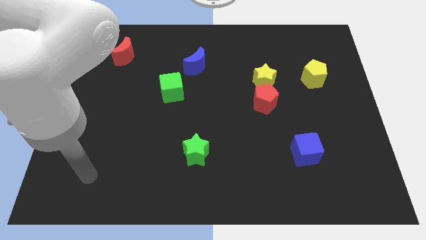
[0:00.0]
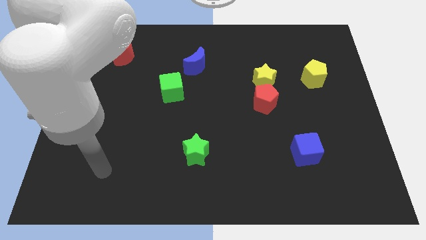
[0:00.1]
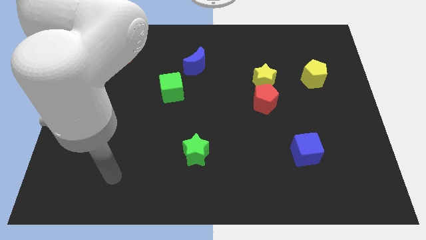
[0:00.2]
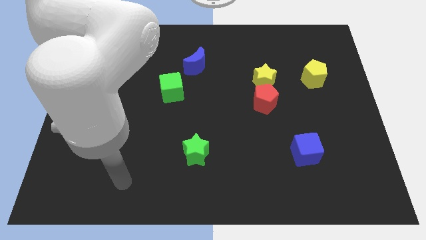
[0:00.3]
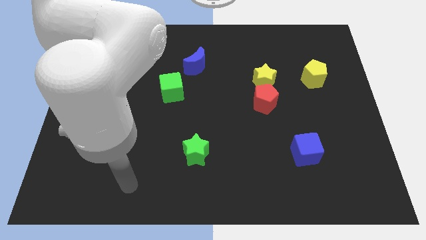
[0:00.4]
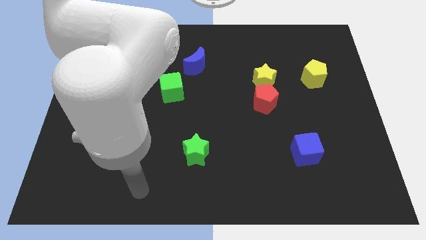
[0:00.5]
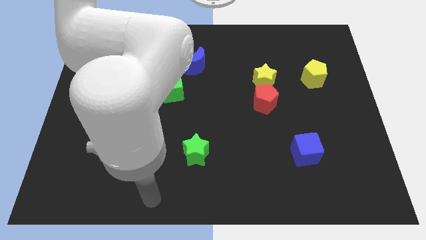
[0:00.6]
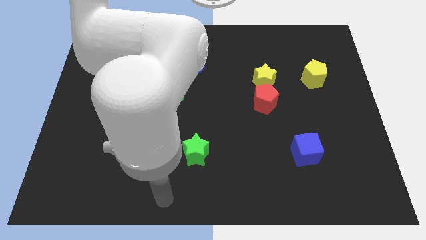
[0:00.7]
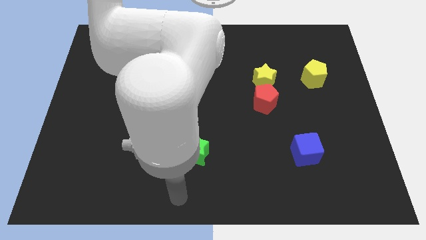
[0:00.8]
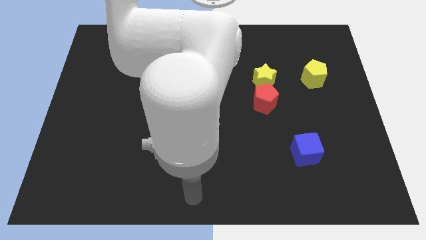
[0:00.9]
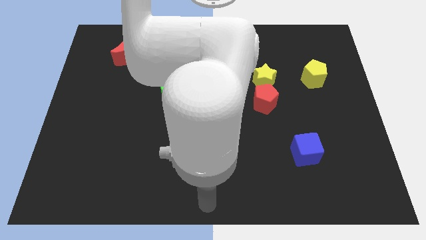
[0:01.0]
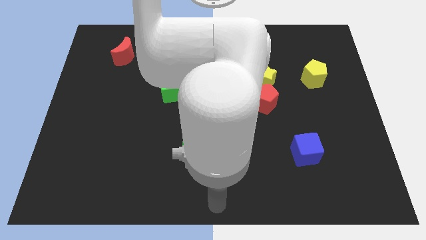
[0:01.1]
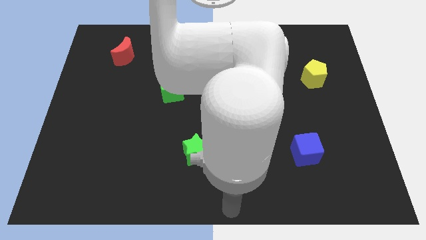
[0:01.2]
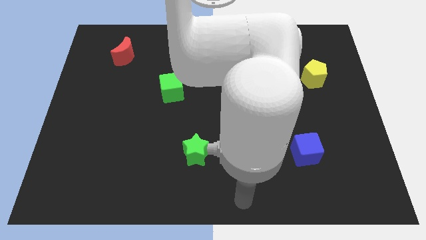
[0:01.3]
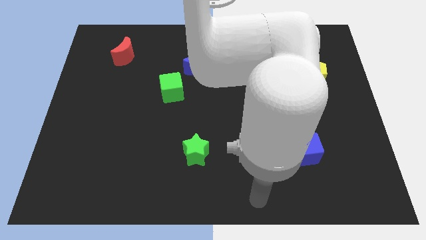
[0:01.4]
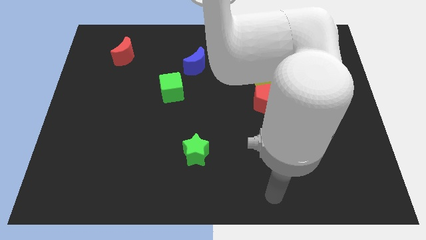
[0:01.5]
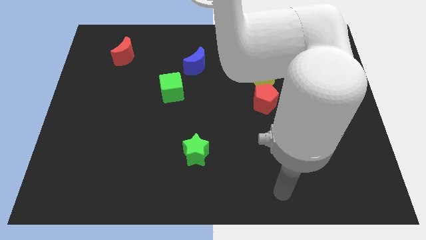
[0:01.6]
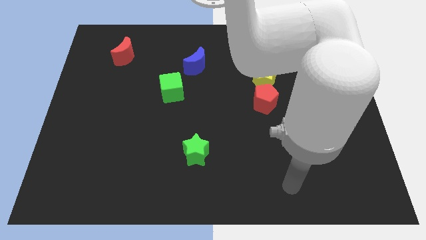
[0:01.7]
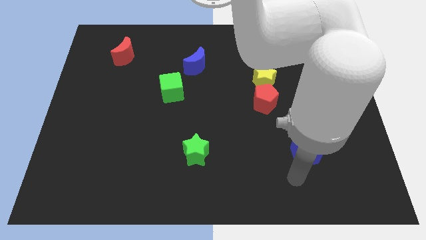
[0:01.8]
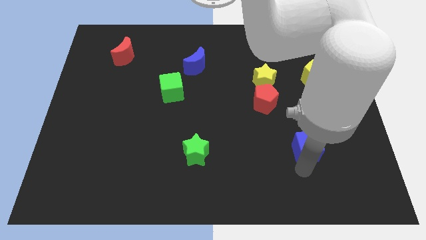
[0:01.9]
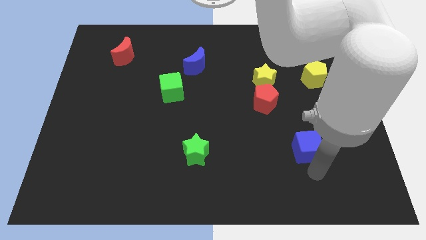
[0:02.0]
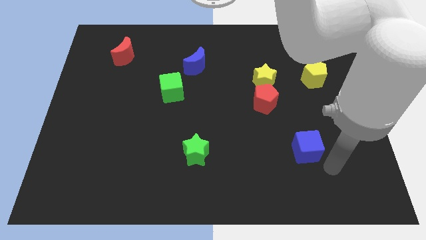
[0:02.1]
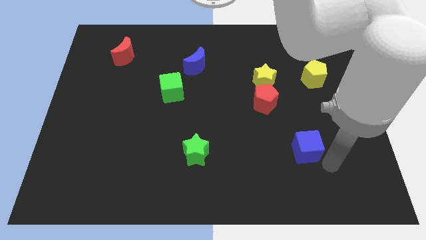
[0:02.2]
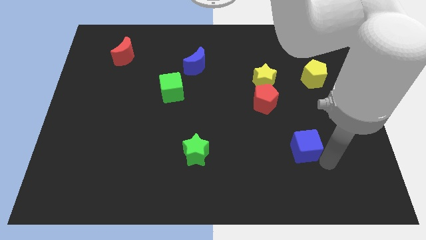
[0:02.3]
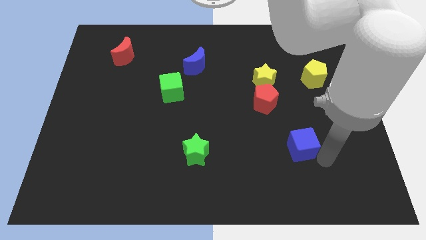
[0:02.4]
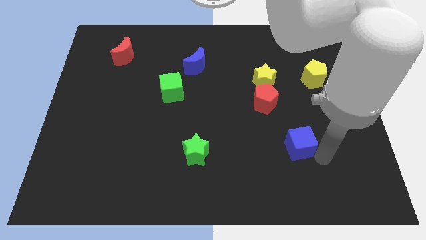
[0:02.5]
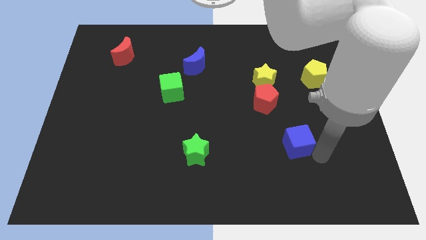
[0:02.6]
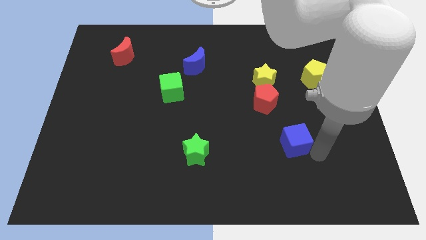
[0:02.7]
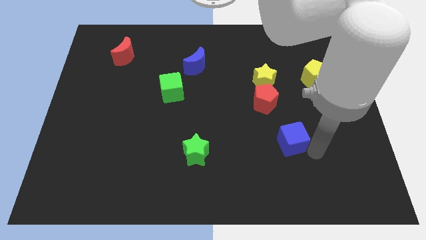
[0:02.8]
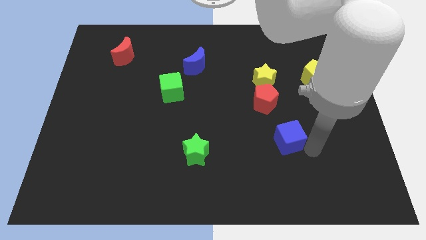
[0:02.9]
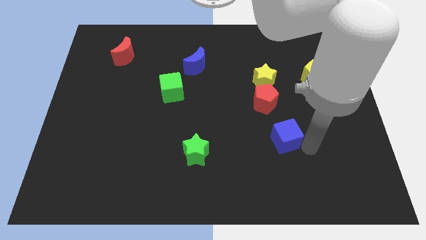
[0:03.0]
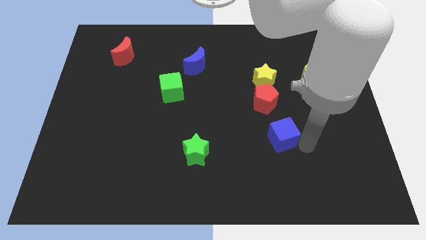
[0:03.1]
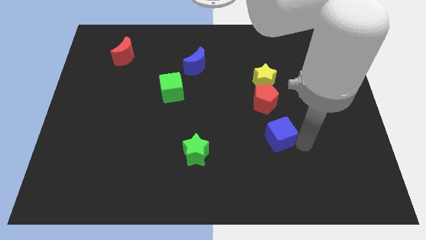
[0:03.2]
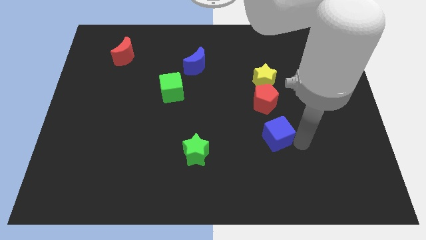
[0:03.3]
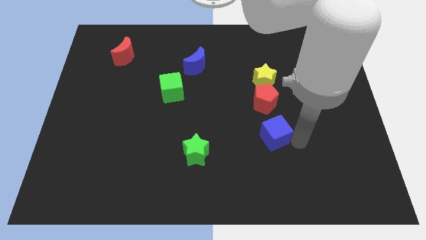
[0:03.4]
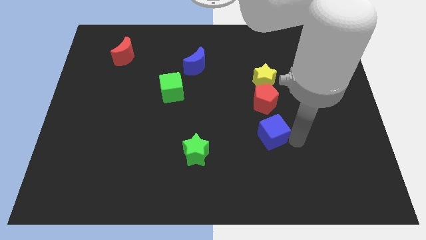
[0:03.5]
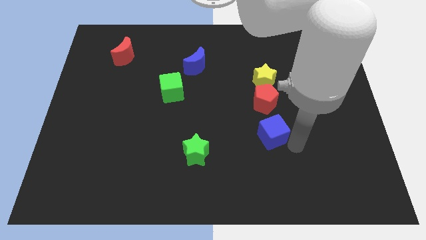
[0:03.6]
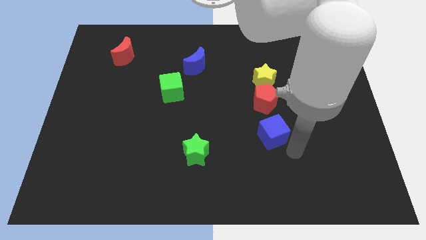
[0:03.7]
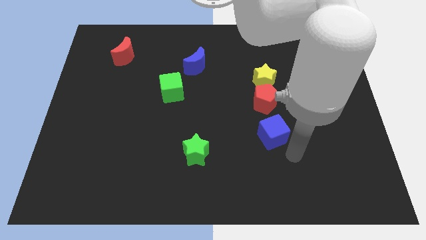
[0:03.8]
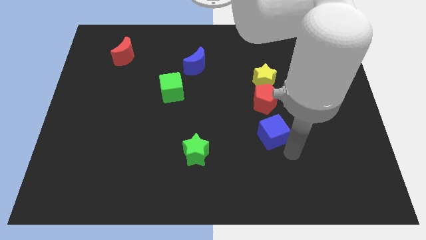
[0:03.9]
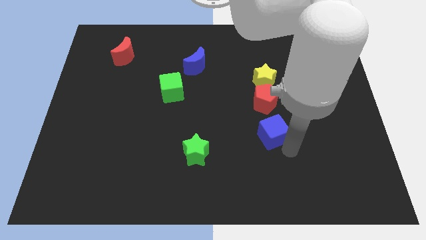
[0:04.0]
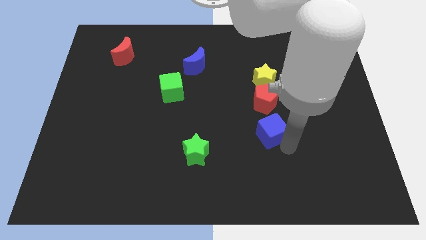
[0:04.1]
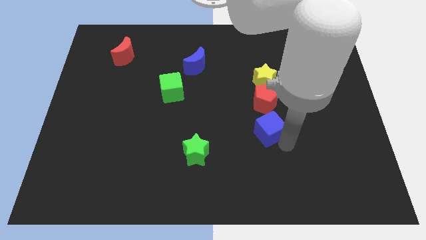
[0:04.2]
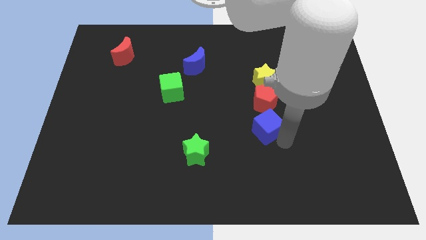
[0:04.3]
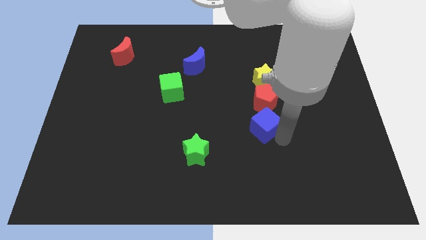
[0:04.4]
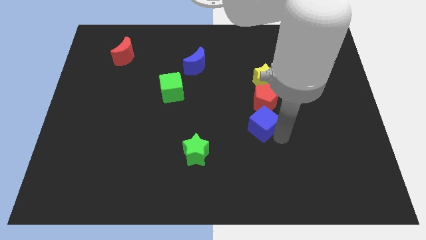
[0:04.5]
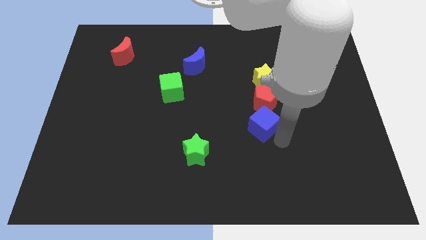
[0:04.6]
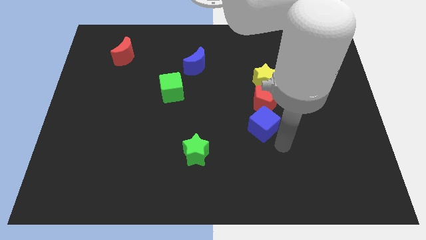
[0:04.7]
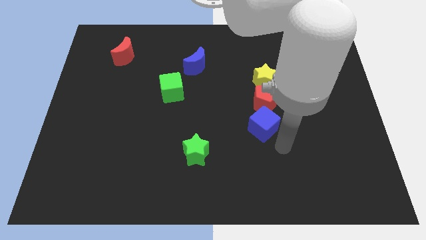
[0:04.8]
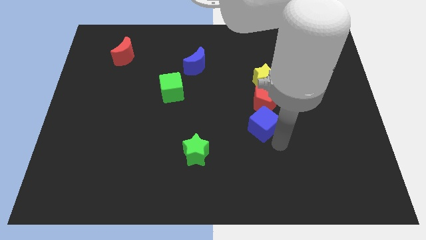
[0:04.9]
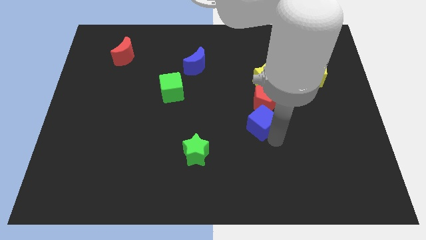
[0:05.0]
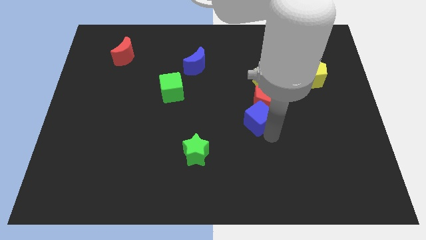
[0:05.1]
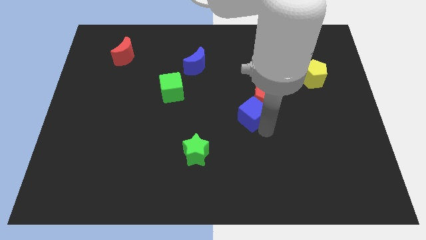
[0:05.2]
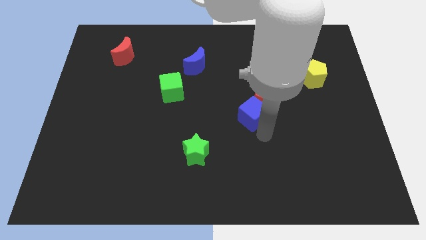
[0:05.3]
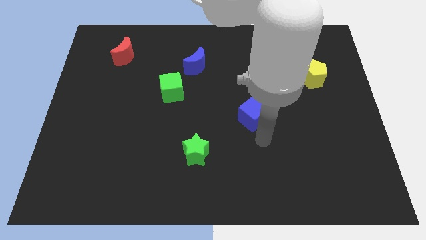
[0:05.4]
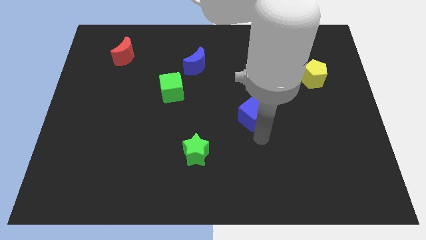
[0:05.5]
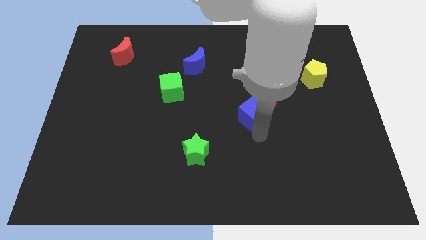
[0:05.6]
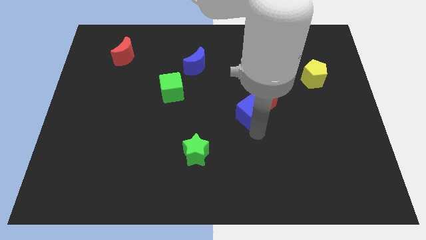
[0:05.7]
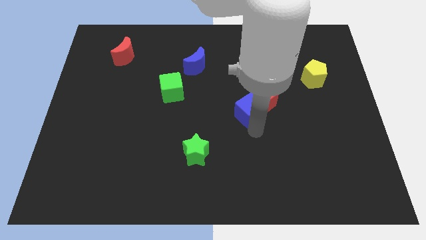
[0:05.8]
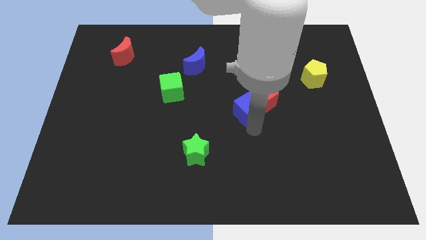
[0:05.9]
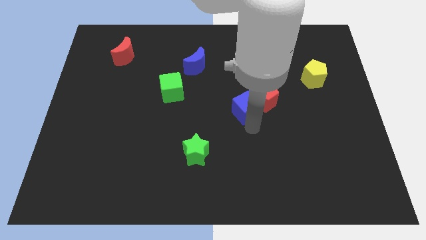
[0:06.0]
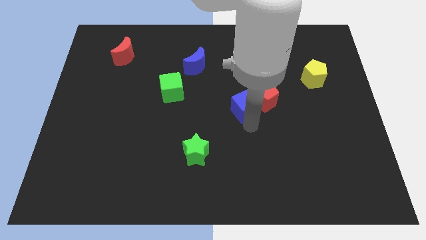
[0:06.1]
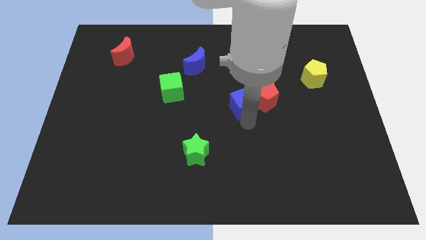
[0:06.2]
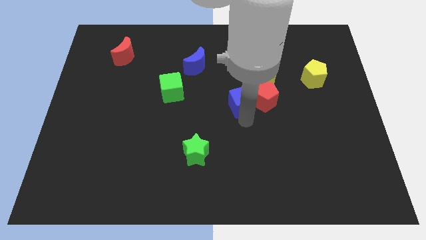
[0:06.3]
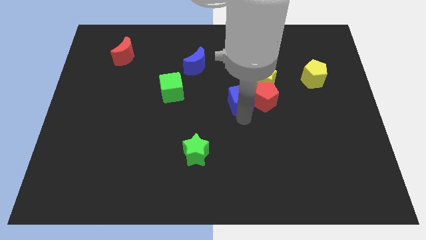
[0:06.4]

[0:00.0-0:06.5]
push the blue cube to the top left side of the red pentagon

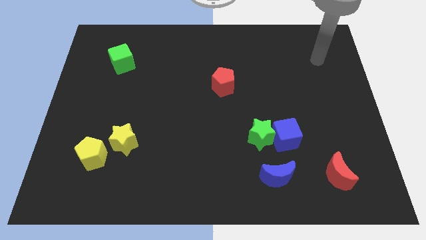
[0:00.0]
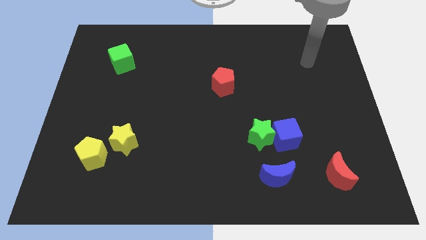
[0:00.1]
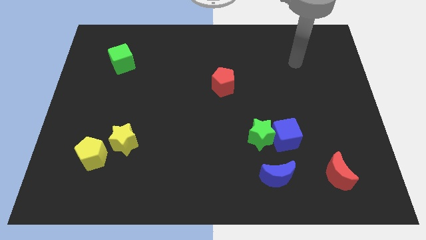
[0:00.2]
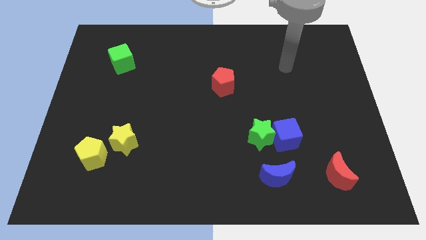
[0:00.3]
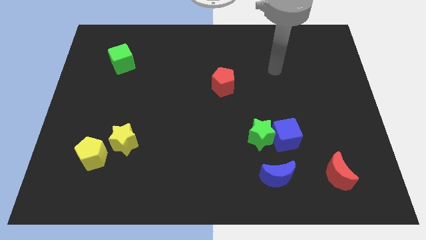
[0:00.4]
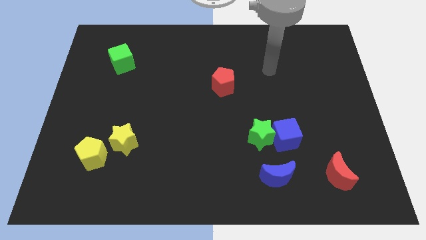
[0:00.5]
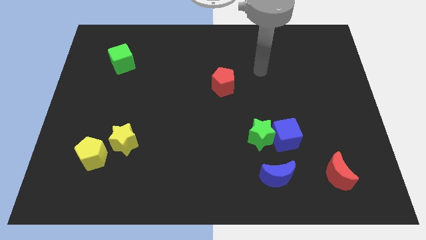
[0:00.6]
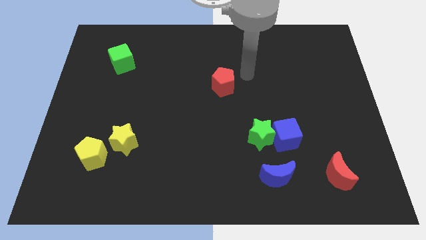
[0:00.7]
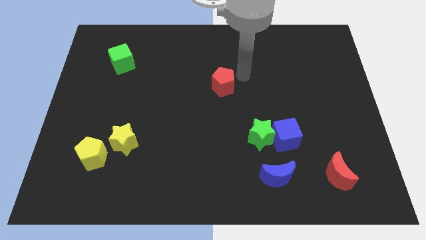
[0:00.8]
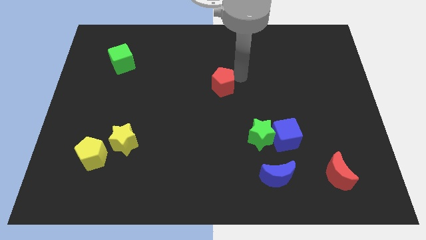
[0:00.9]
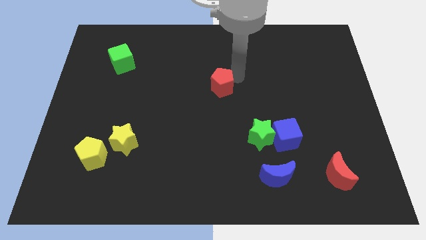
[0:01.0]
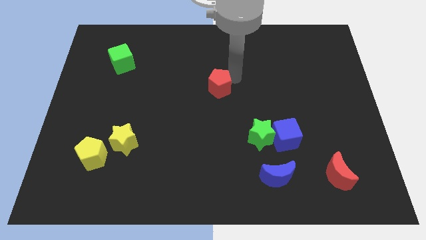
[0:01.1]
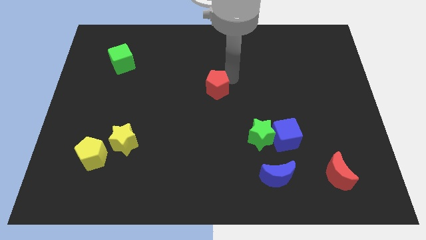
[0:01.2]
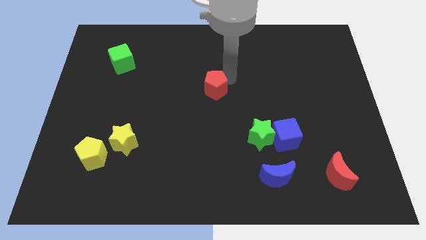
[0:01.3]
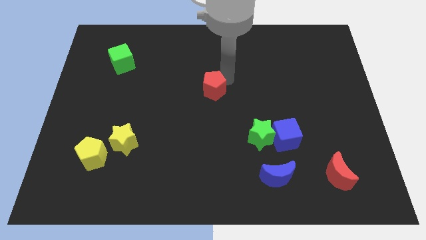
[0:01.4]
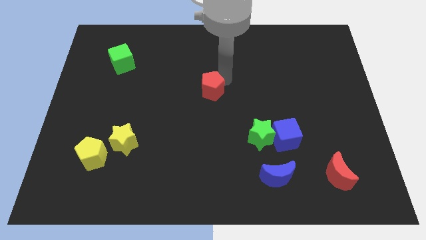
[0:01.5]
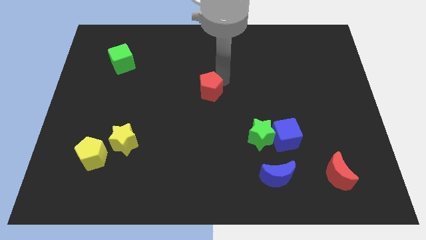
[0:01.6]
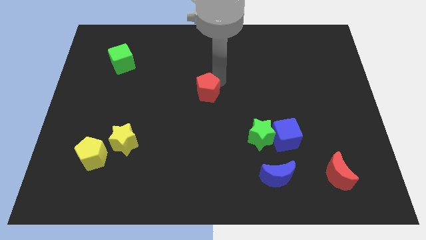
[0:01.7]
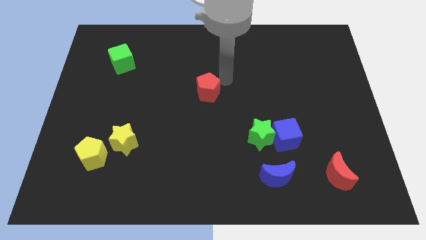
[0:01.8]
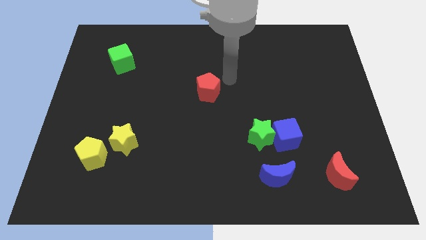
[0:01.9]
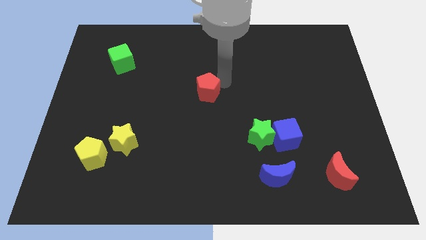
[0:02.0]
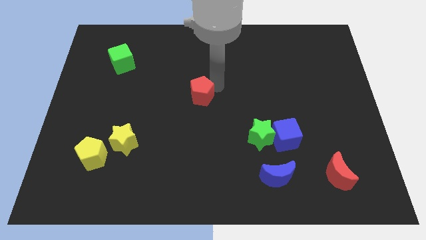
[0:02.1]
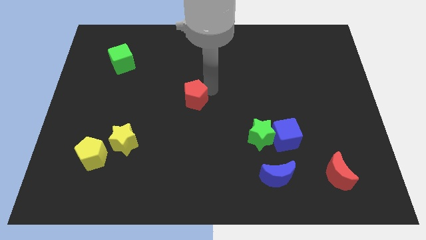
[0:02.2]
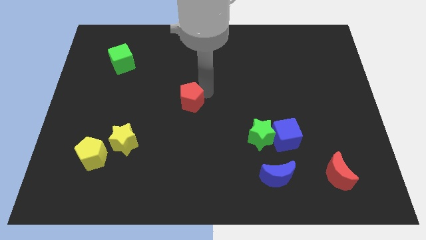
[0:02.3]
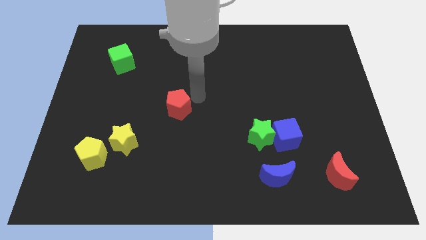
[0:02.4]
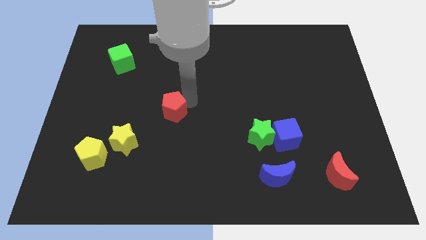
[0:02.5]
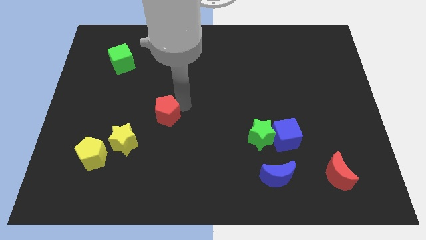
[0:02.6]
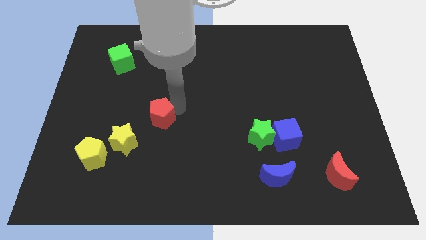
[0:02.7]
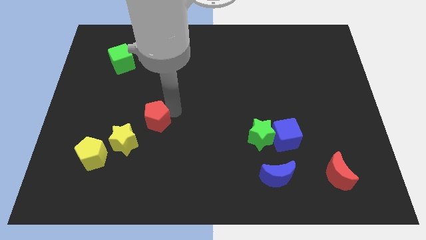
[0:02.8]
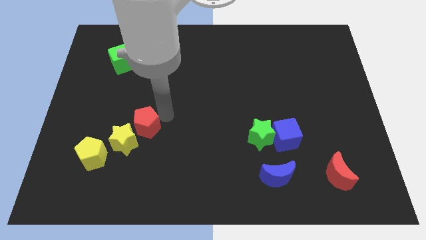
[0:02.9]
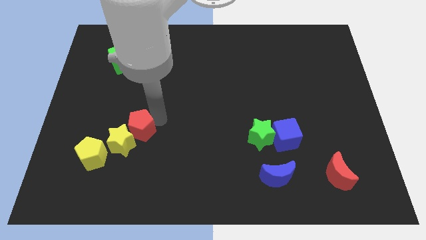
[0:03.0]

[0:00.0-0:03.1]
slide the red pentagon to the top right side of the yellow pentagon
